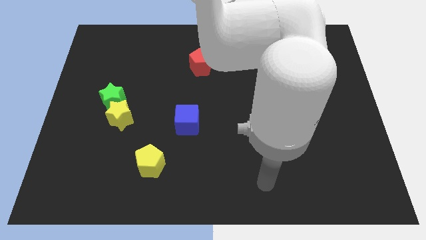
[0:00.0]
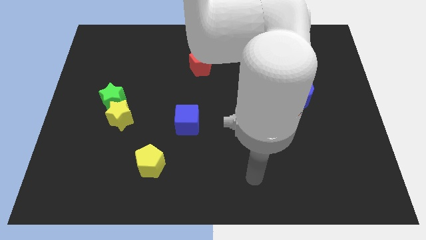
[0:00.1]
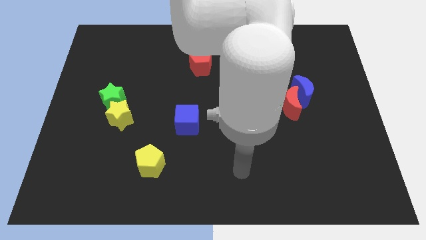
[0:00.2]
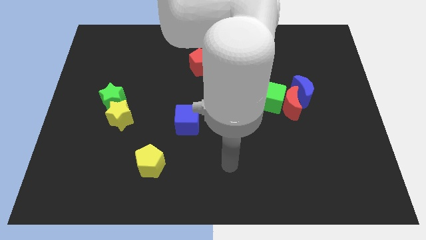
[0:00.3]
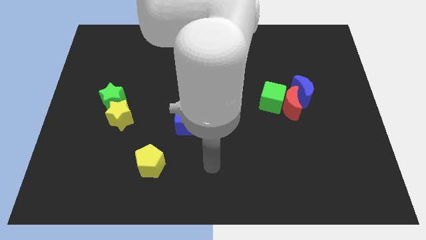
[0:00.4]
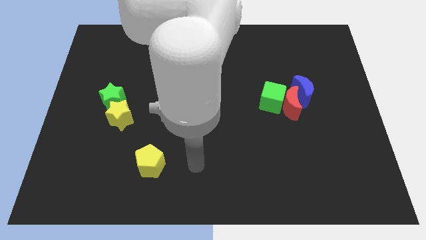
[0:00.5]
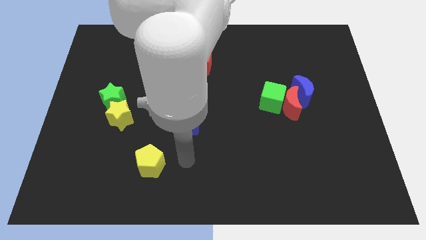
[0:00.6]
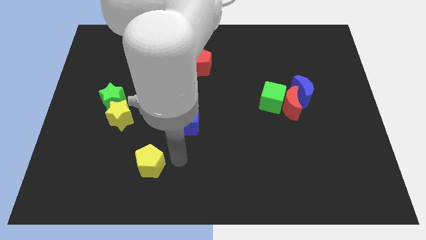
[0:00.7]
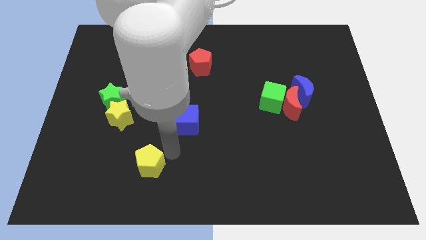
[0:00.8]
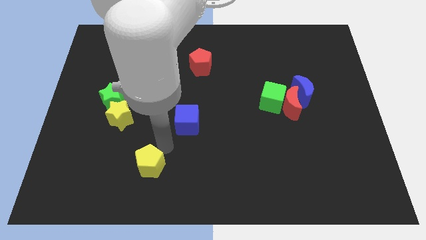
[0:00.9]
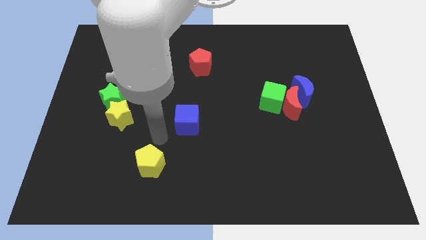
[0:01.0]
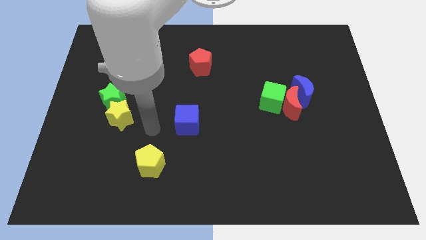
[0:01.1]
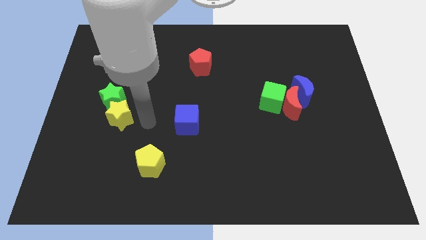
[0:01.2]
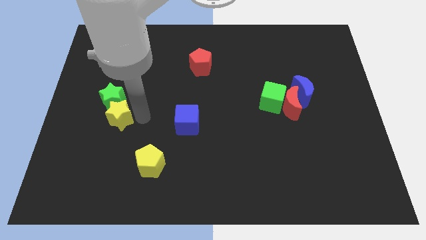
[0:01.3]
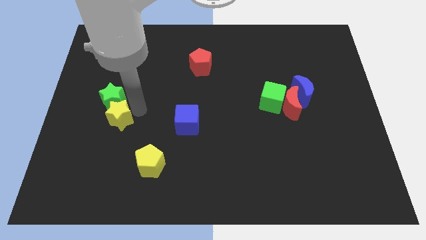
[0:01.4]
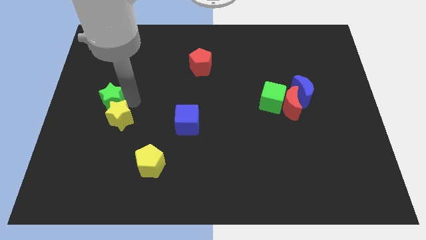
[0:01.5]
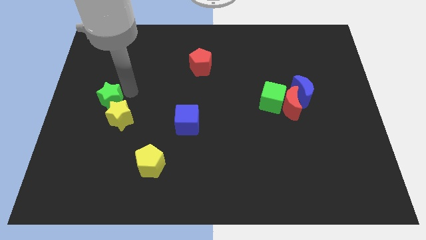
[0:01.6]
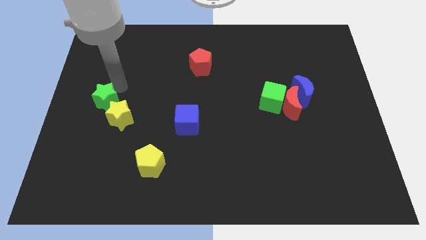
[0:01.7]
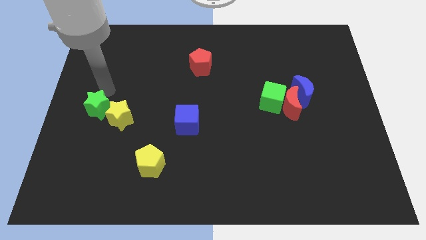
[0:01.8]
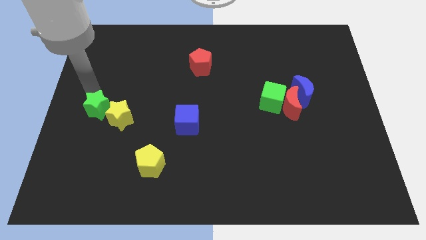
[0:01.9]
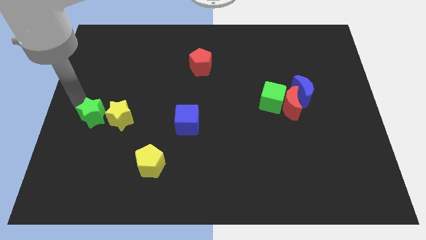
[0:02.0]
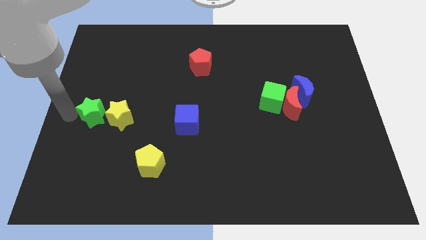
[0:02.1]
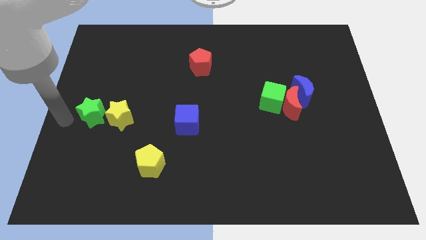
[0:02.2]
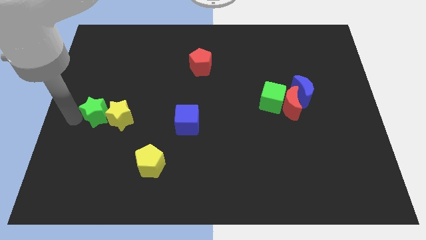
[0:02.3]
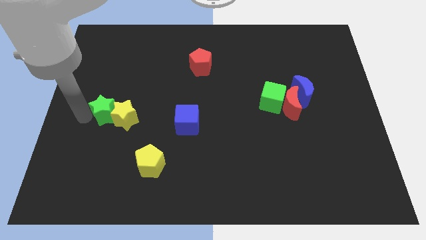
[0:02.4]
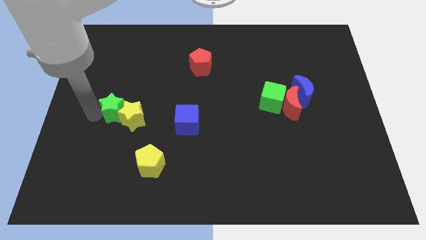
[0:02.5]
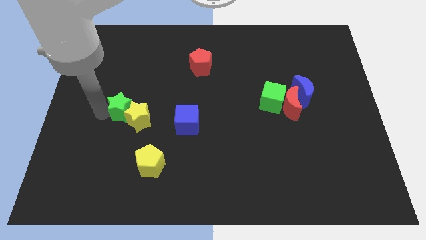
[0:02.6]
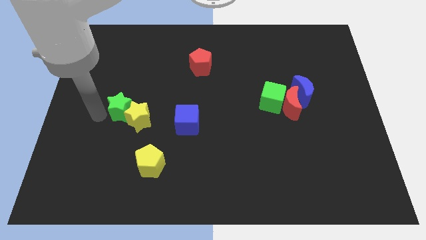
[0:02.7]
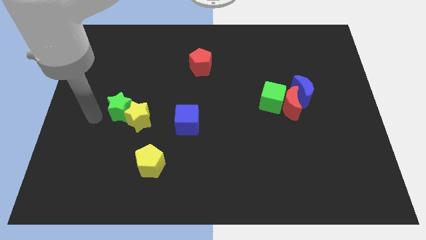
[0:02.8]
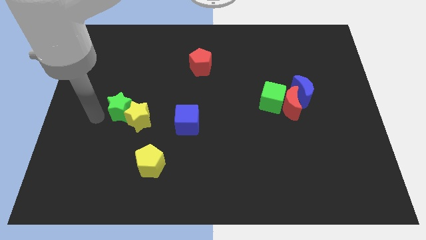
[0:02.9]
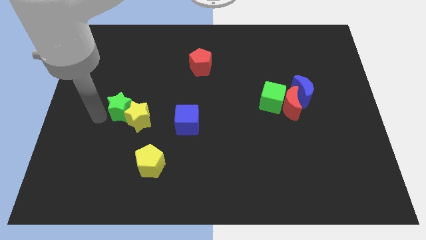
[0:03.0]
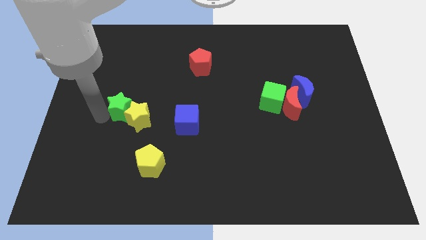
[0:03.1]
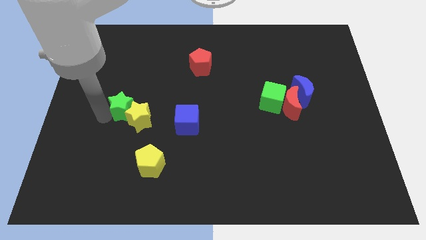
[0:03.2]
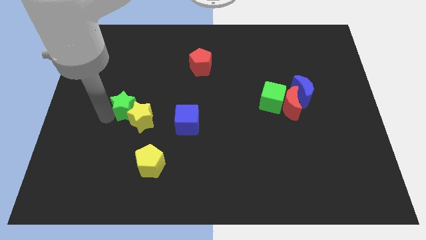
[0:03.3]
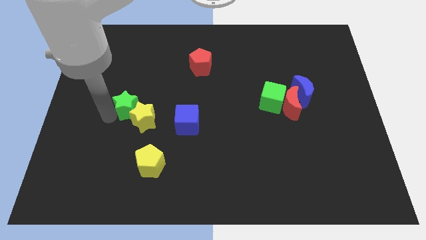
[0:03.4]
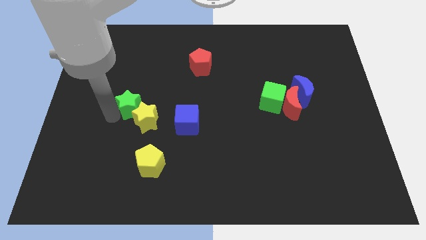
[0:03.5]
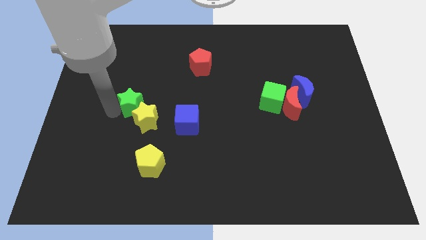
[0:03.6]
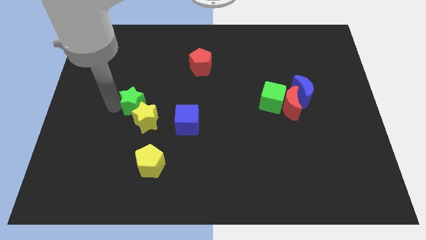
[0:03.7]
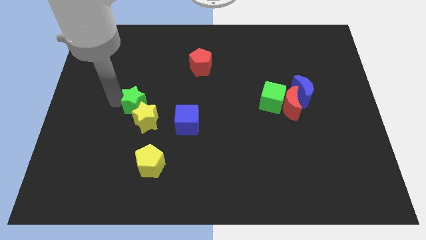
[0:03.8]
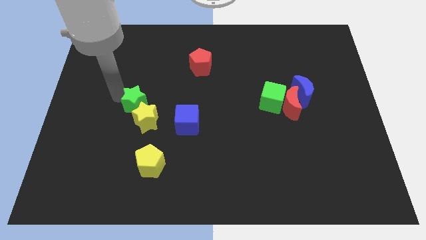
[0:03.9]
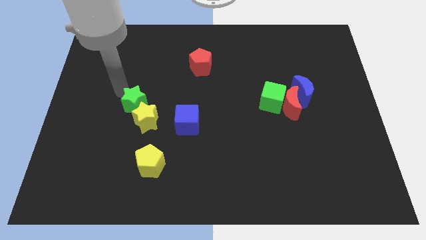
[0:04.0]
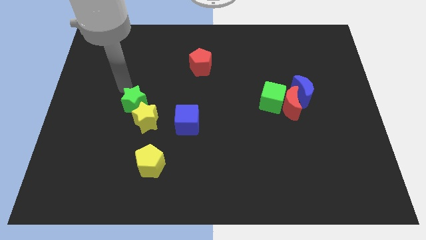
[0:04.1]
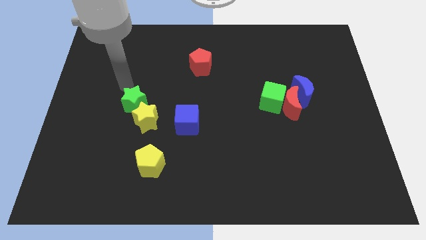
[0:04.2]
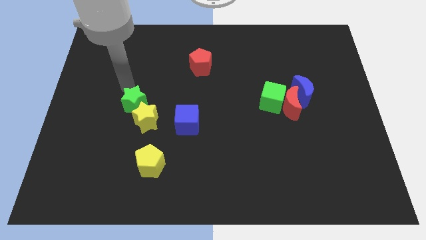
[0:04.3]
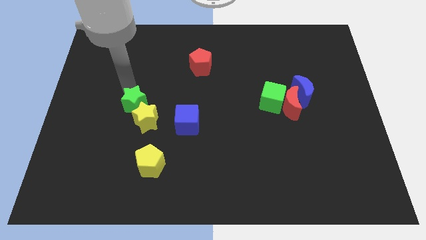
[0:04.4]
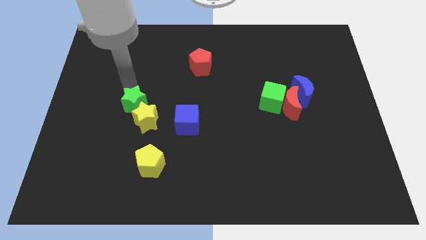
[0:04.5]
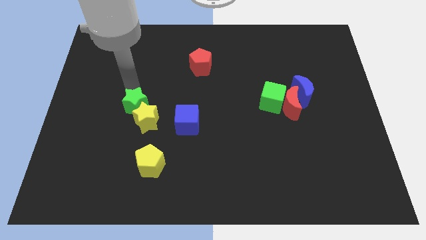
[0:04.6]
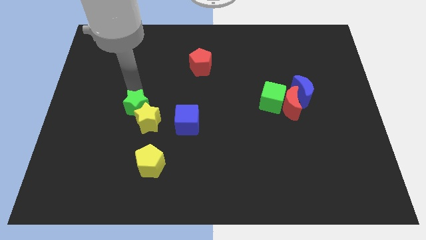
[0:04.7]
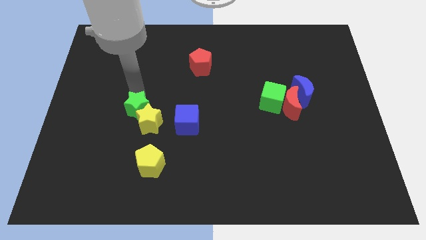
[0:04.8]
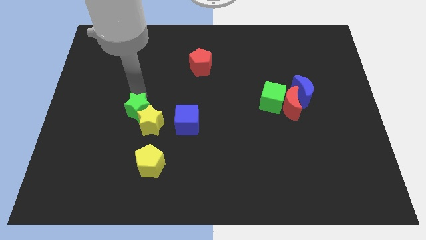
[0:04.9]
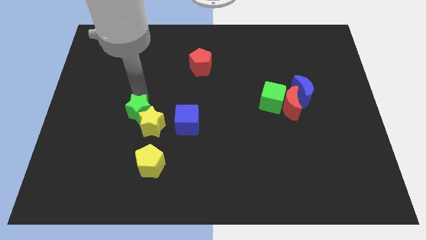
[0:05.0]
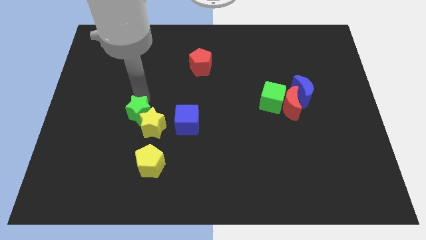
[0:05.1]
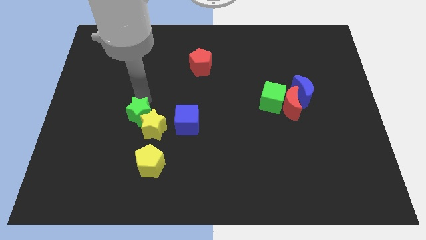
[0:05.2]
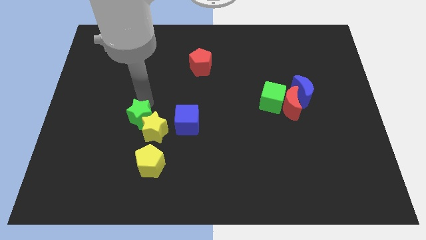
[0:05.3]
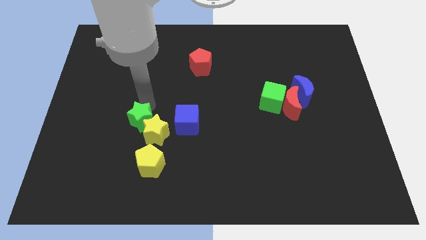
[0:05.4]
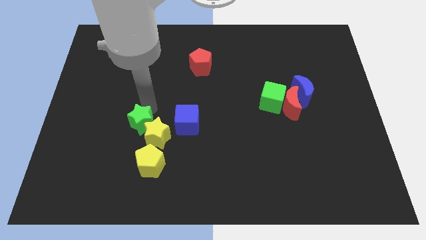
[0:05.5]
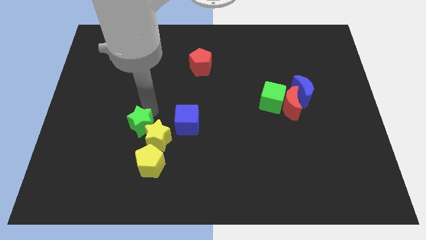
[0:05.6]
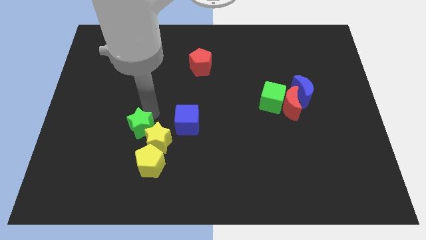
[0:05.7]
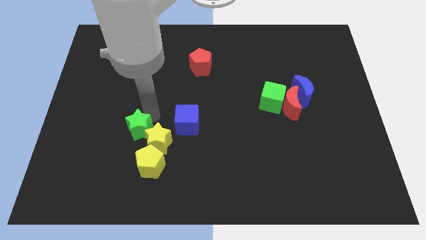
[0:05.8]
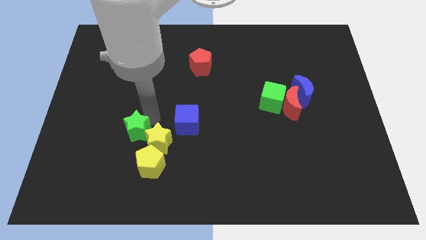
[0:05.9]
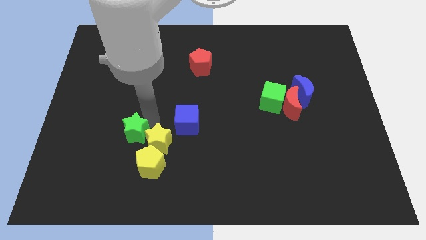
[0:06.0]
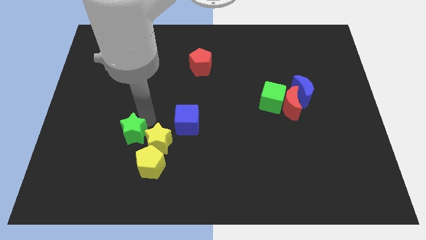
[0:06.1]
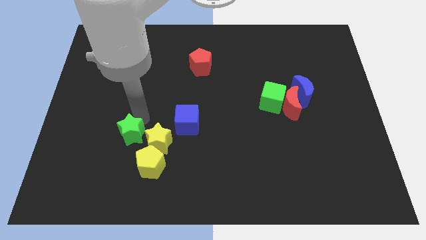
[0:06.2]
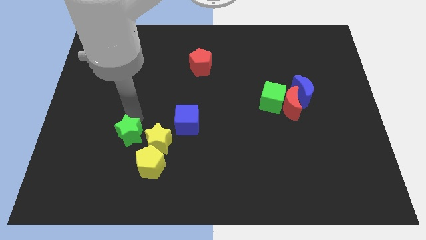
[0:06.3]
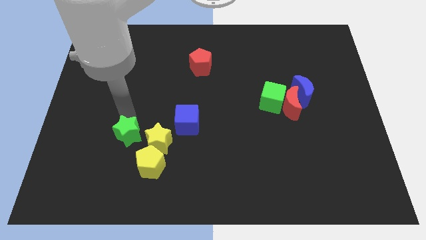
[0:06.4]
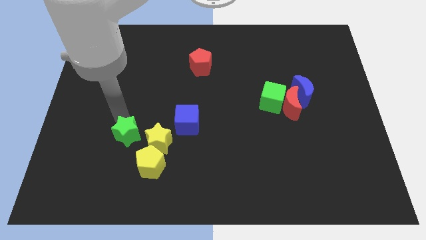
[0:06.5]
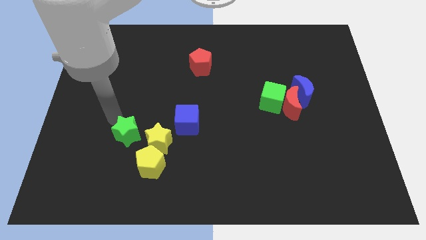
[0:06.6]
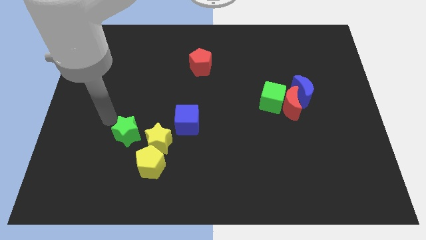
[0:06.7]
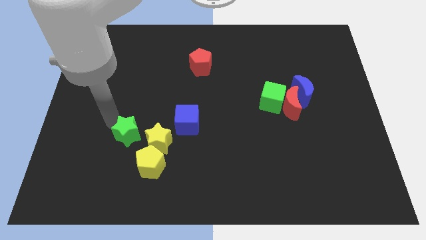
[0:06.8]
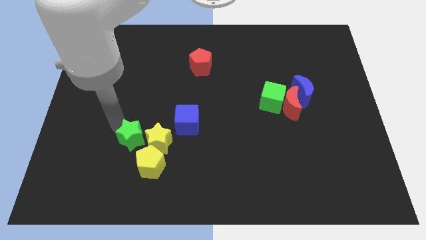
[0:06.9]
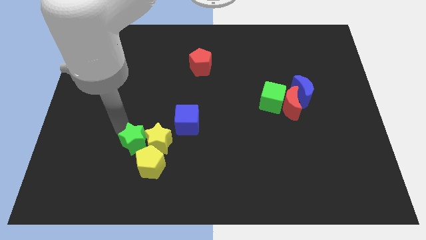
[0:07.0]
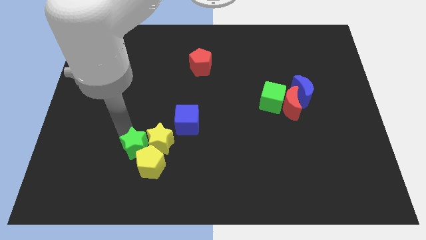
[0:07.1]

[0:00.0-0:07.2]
slide the green star towards the yellow pentagon

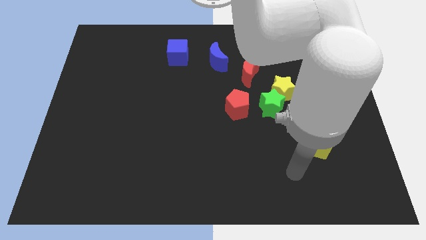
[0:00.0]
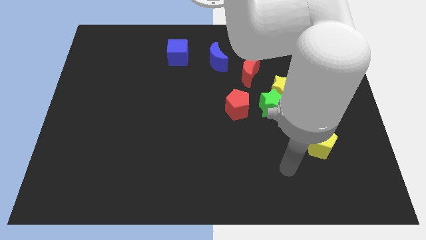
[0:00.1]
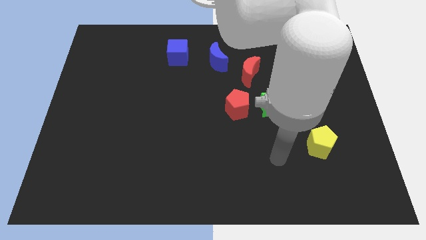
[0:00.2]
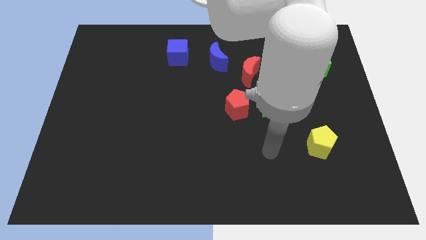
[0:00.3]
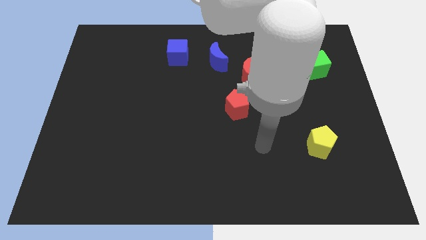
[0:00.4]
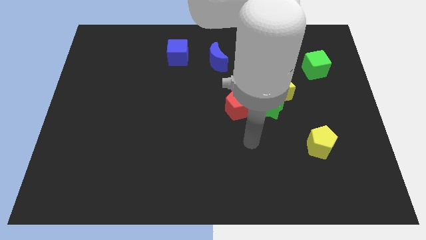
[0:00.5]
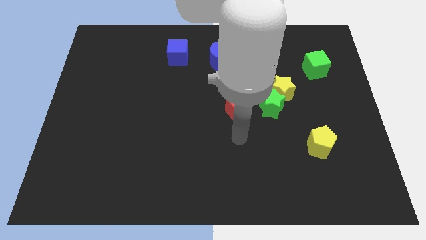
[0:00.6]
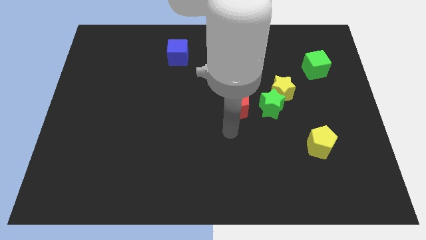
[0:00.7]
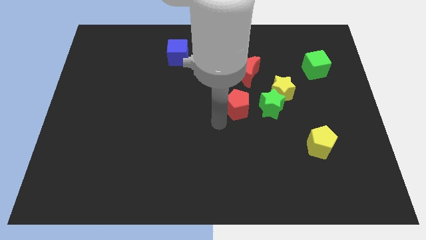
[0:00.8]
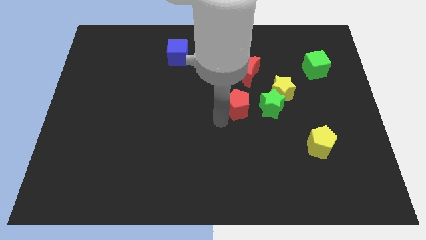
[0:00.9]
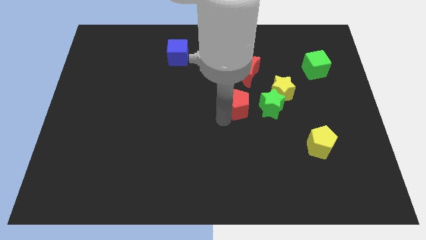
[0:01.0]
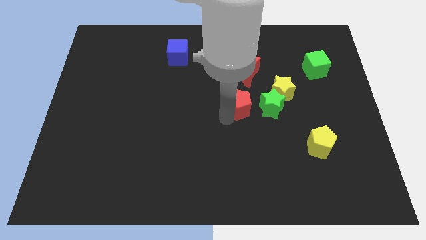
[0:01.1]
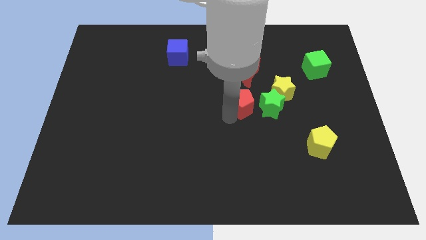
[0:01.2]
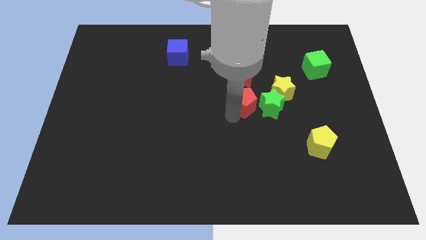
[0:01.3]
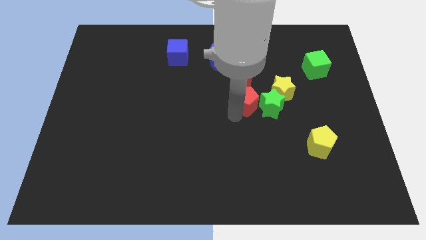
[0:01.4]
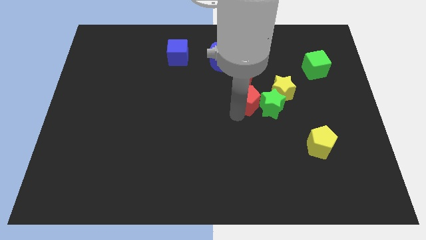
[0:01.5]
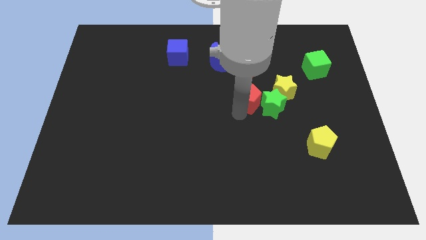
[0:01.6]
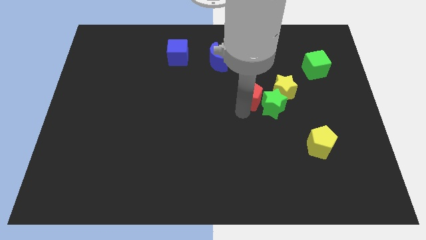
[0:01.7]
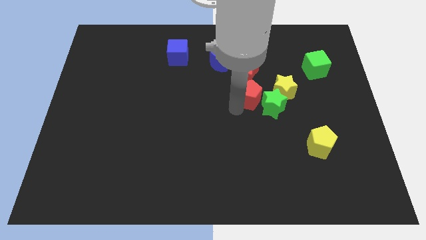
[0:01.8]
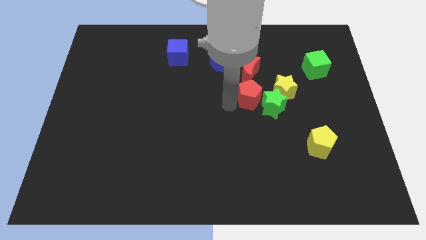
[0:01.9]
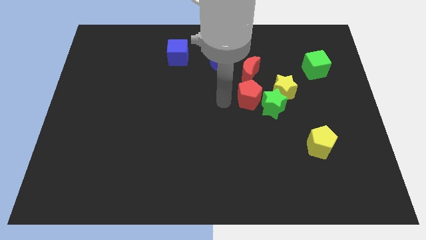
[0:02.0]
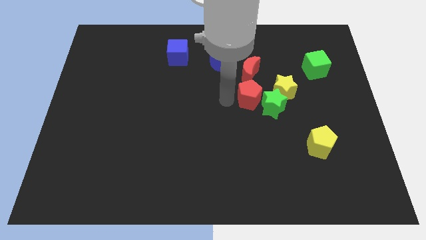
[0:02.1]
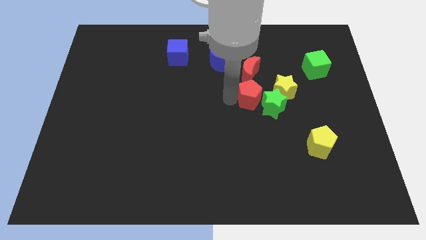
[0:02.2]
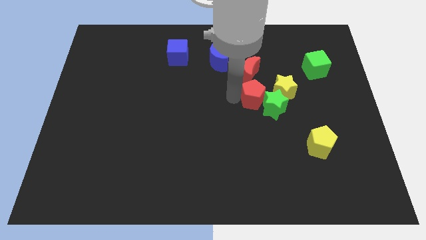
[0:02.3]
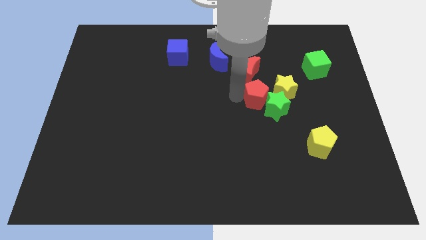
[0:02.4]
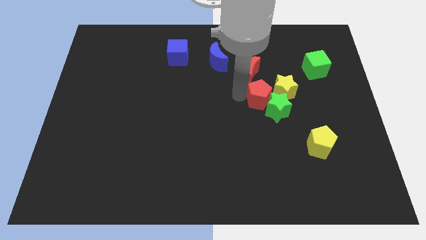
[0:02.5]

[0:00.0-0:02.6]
slide the red pentagon to the yellow star
